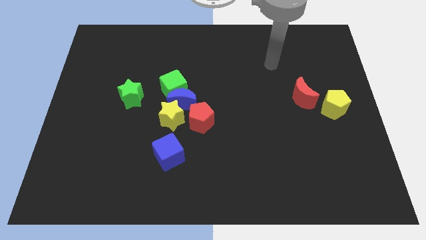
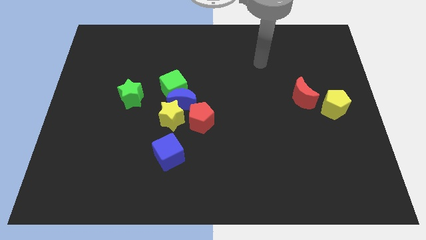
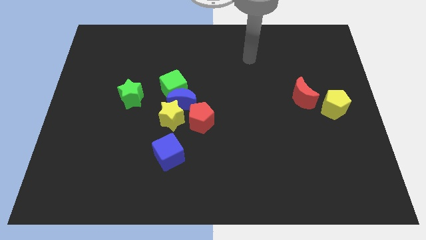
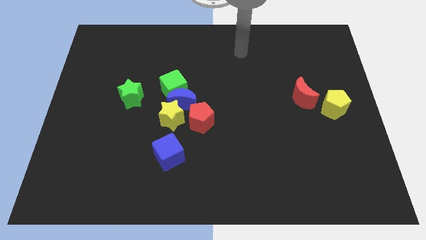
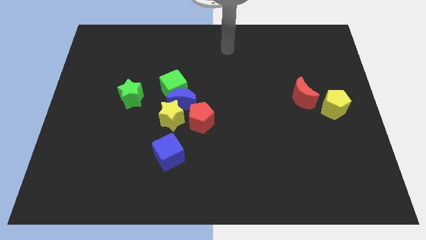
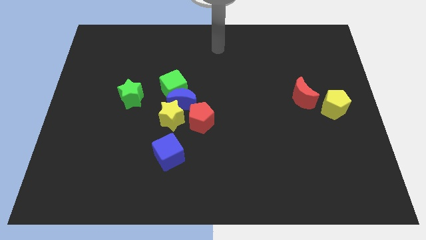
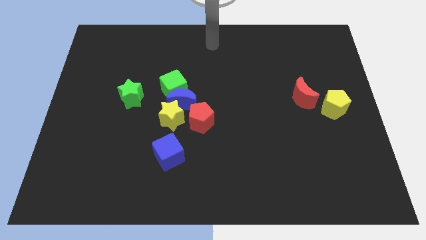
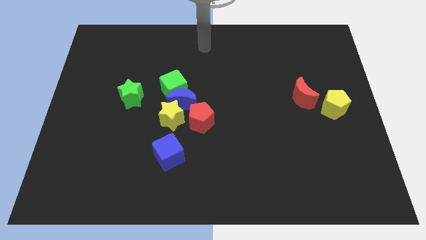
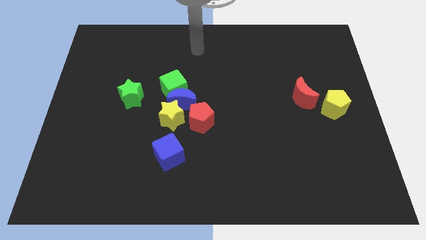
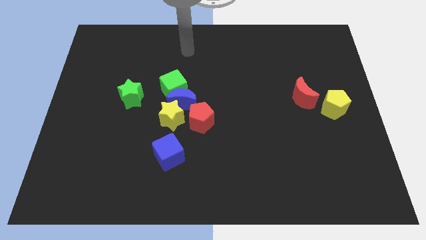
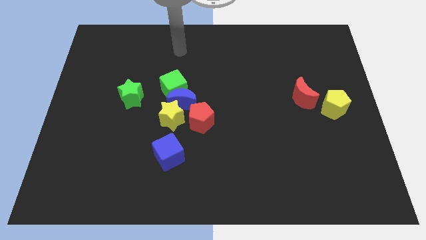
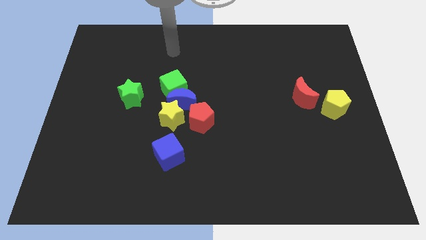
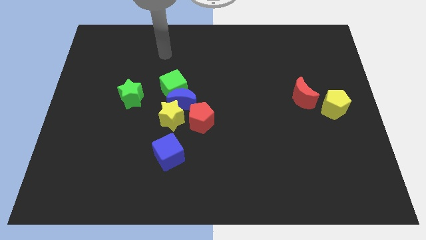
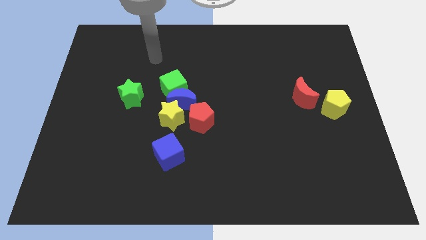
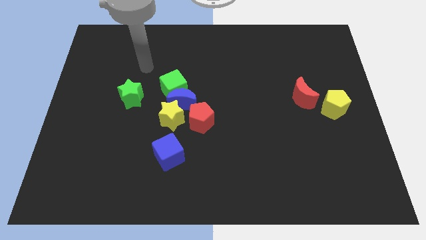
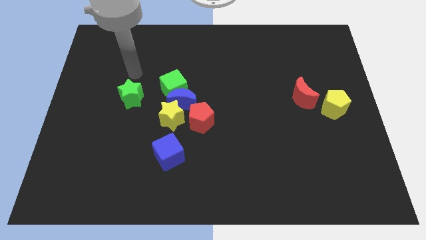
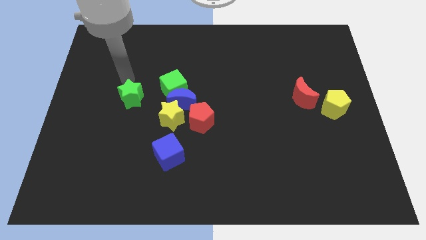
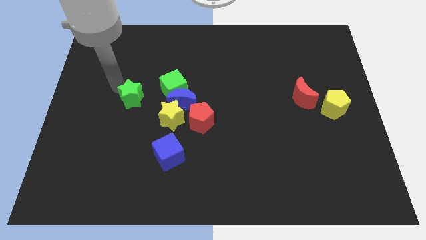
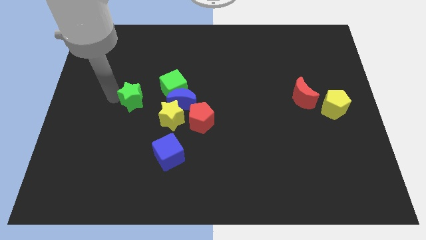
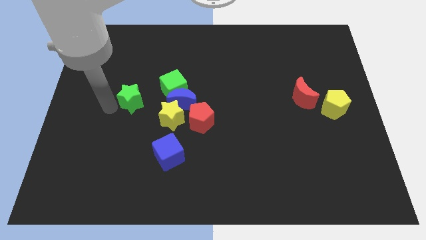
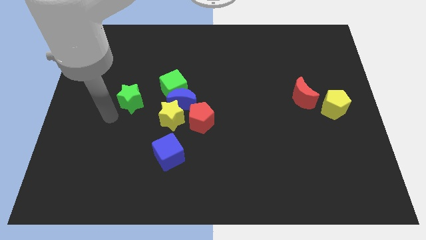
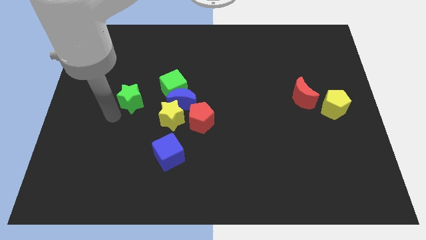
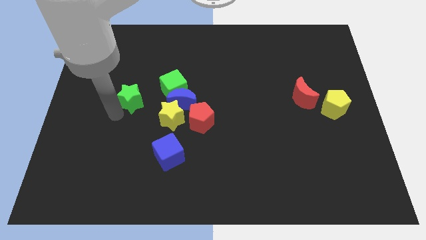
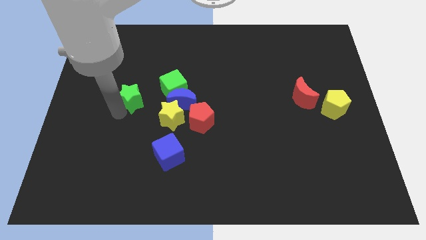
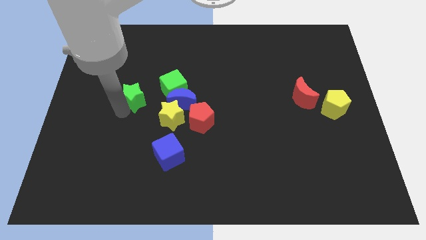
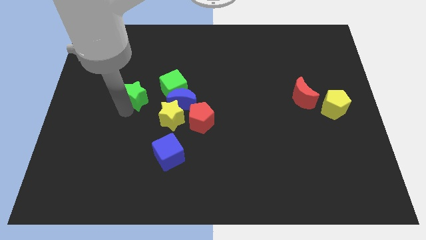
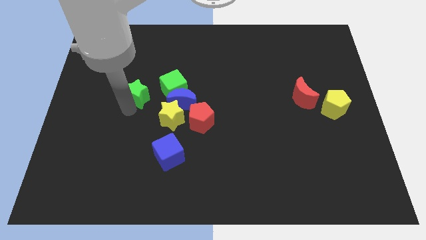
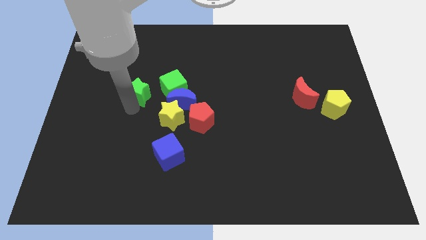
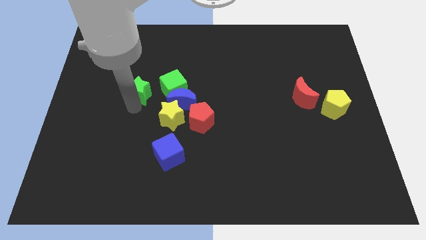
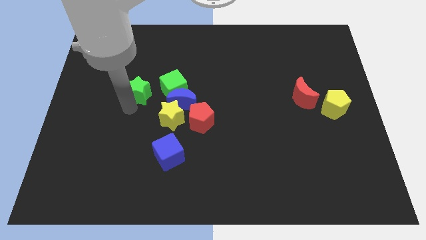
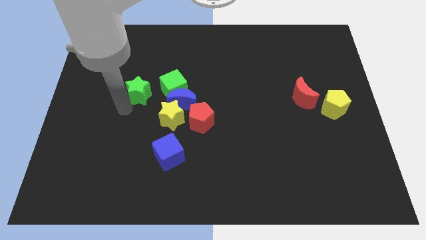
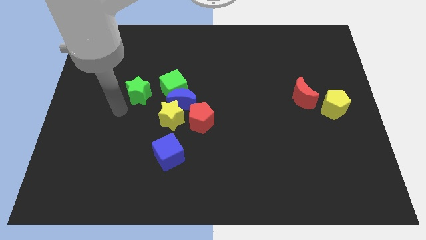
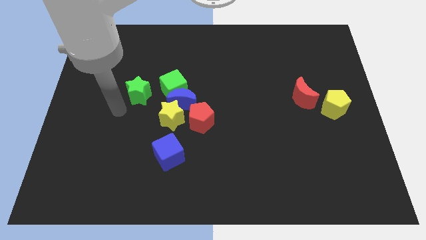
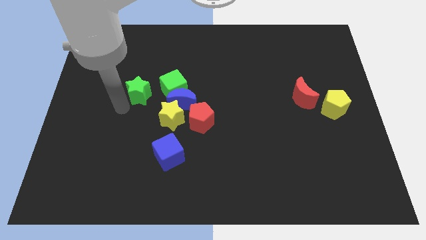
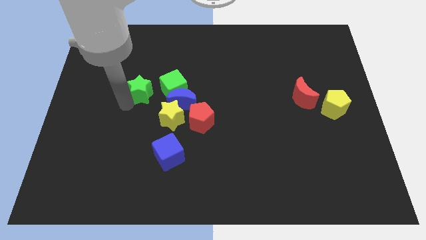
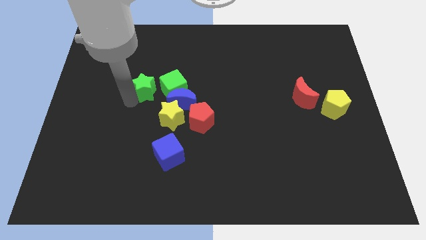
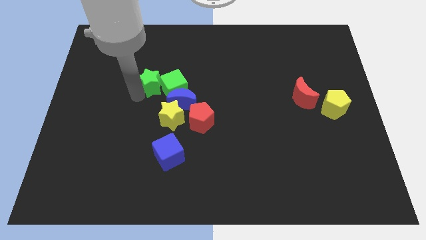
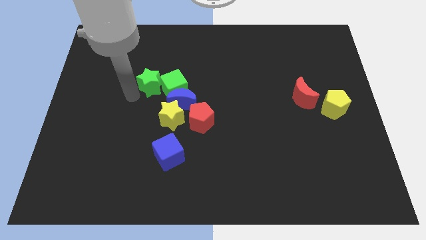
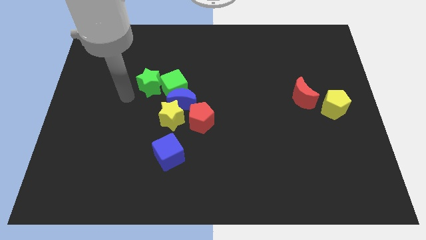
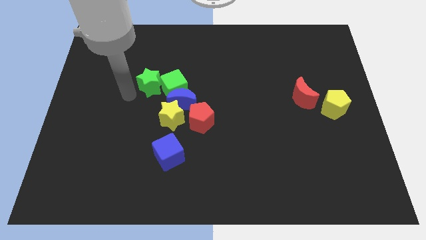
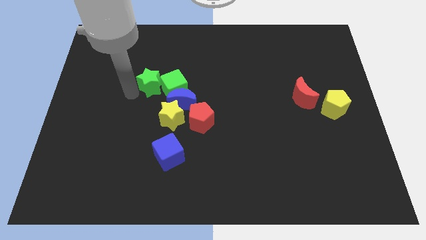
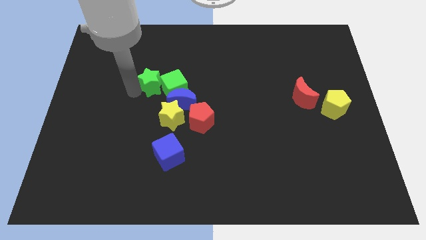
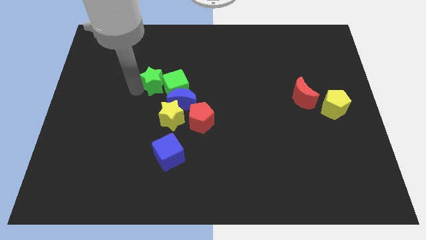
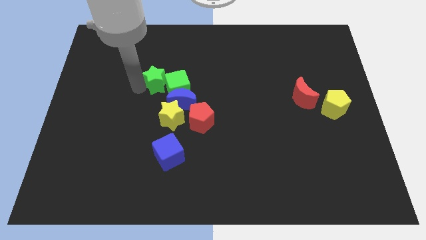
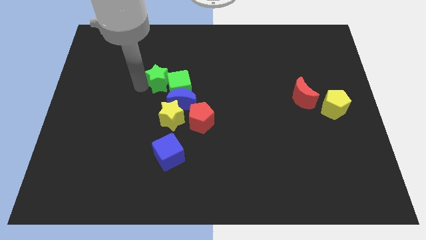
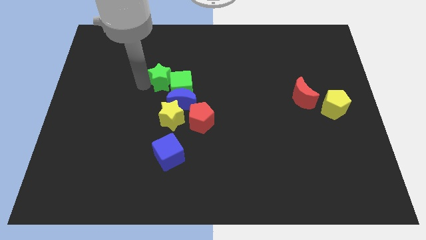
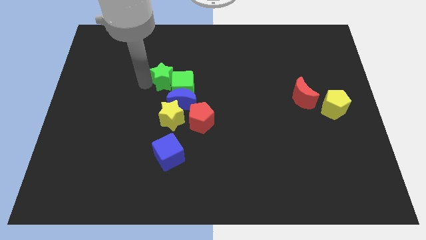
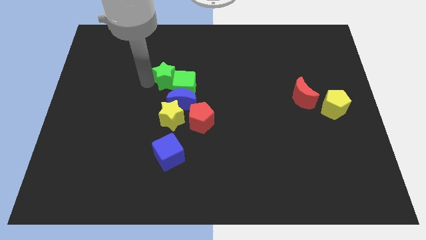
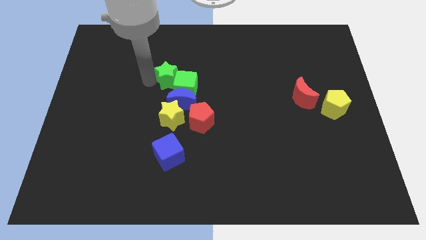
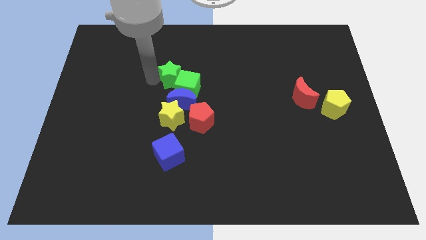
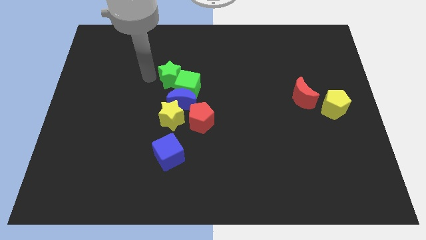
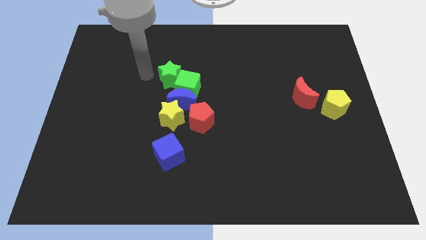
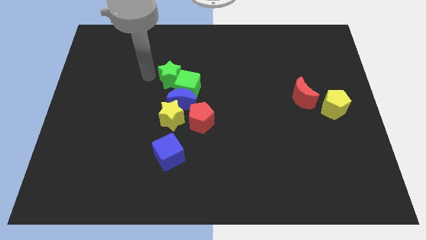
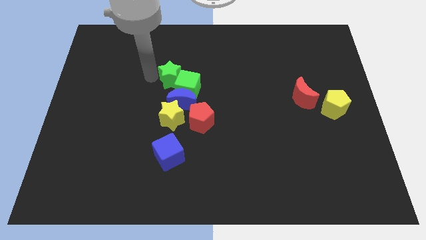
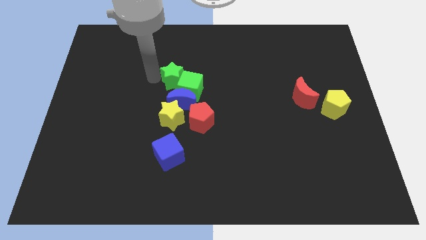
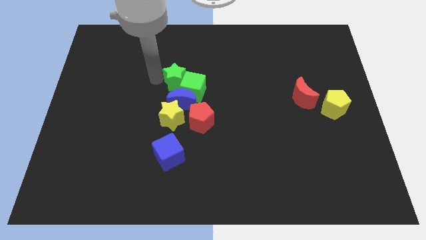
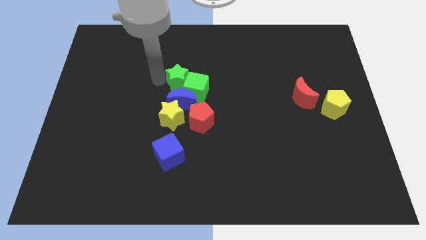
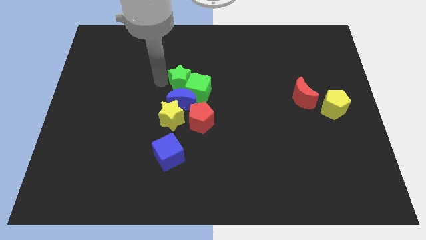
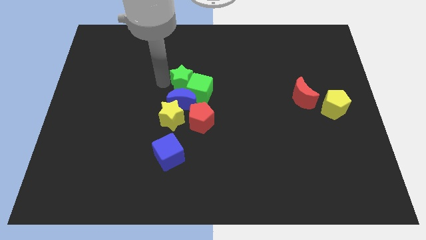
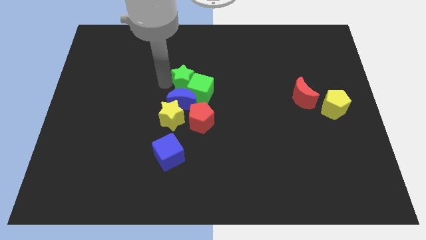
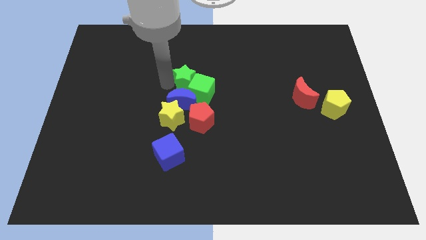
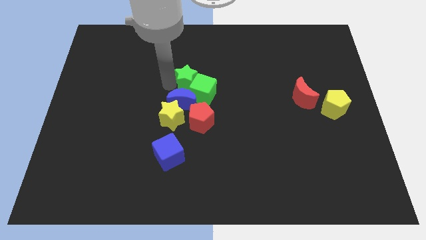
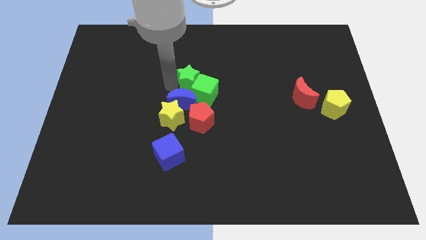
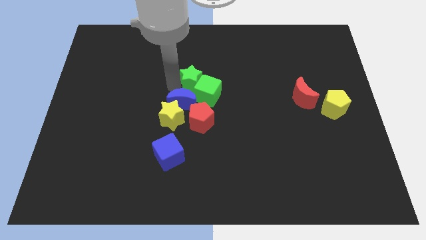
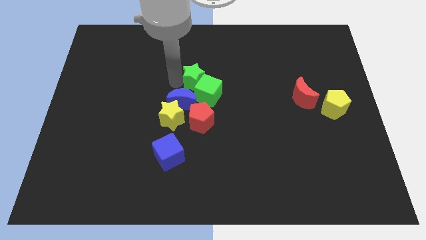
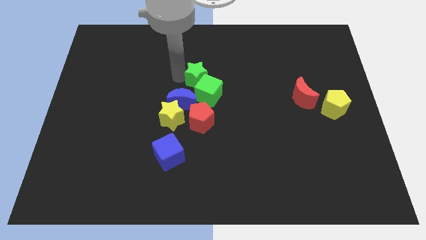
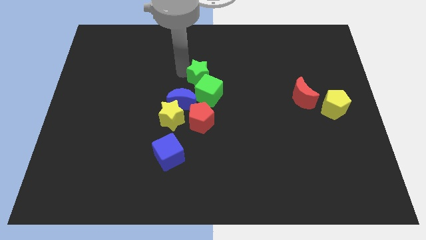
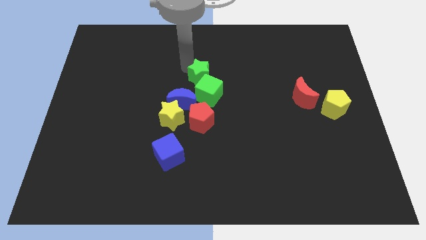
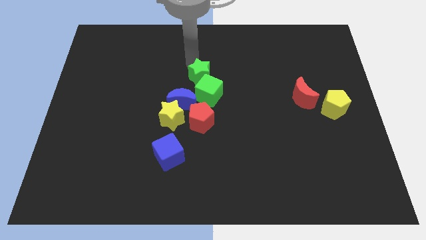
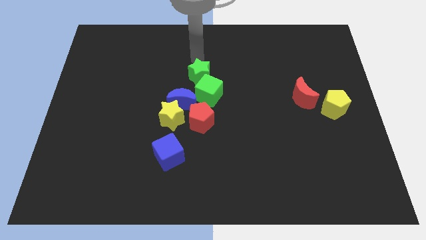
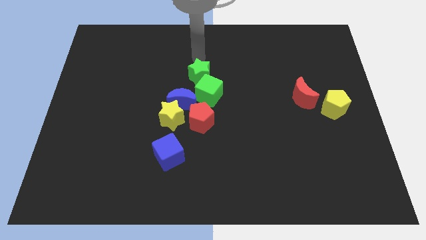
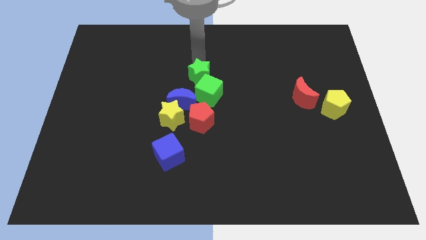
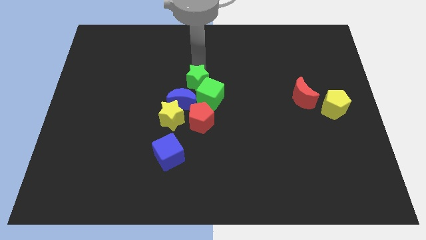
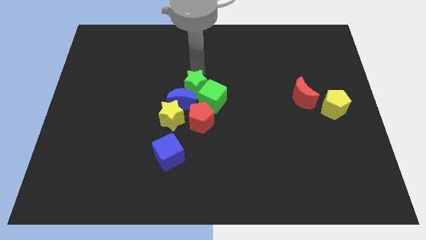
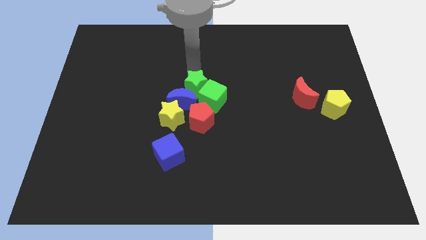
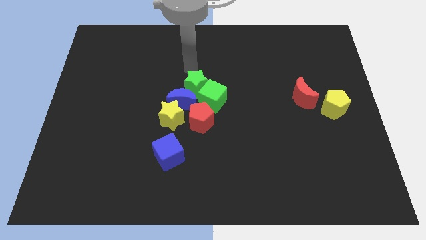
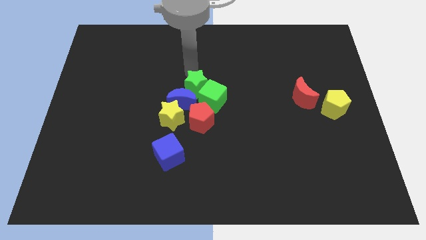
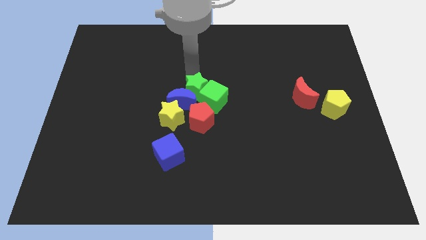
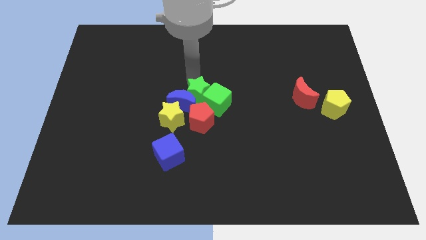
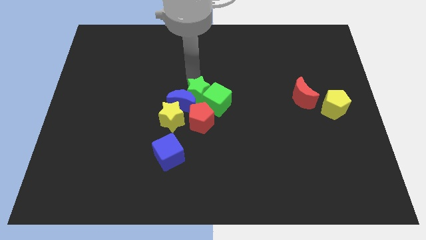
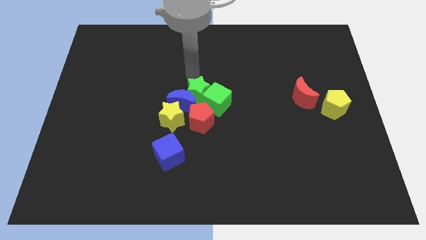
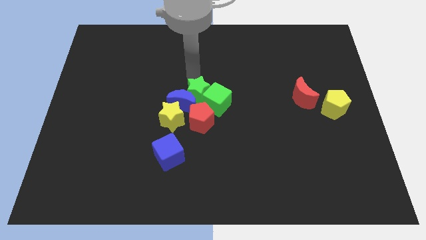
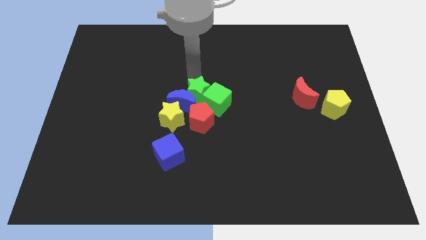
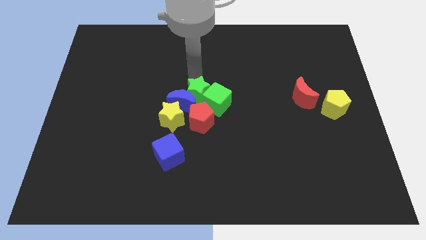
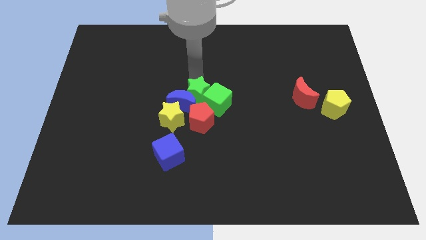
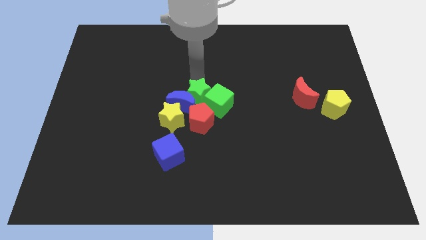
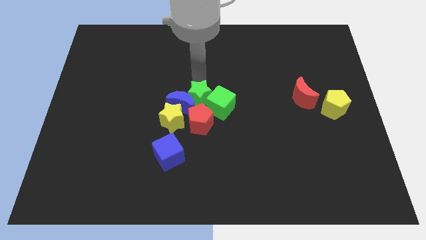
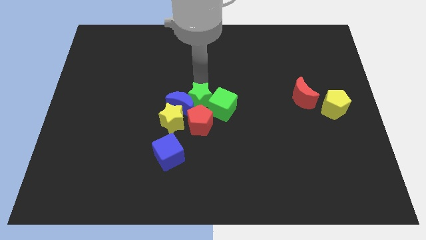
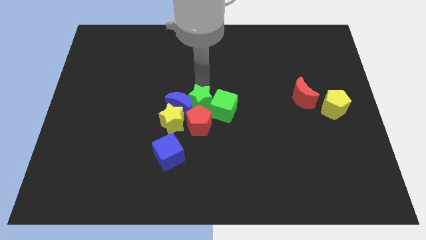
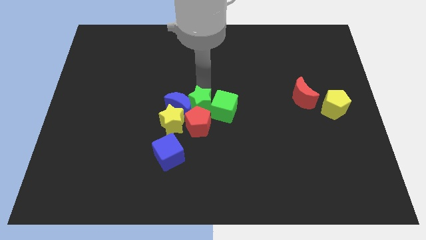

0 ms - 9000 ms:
slide the green star to the red pentagon
